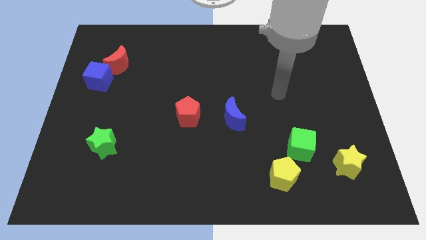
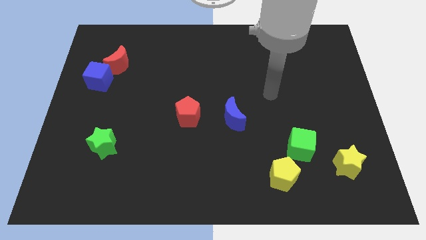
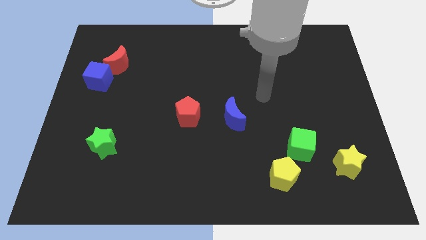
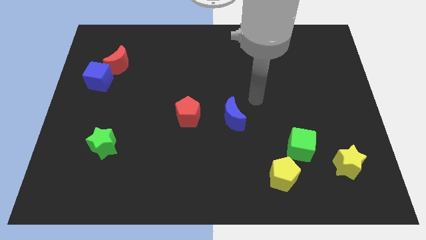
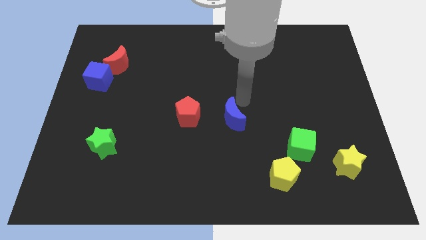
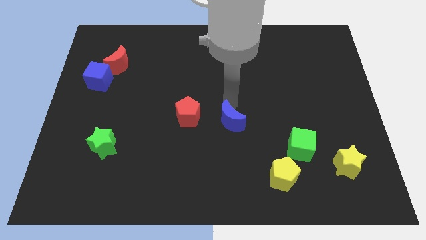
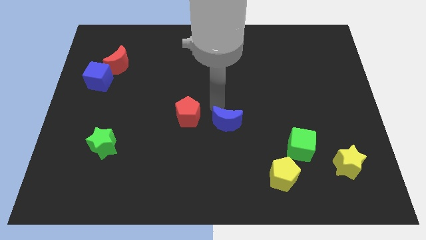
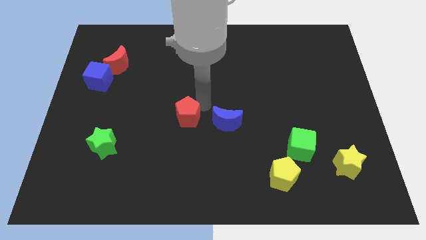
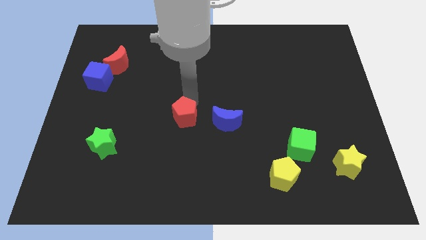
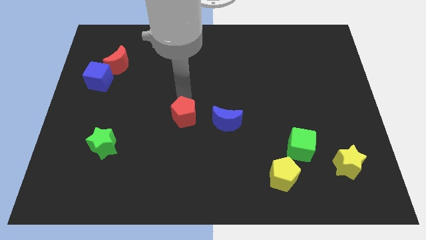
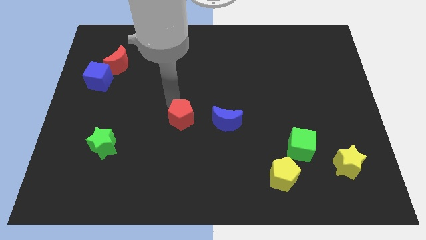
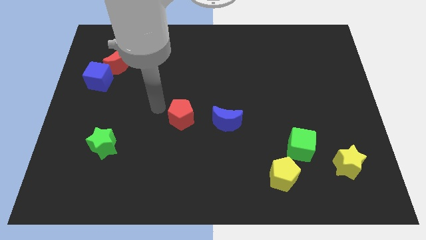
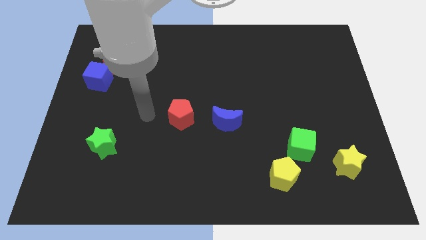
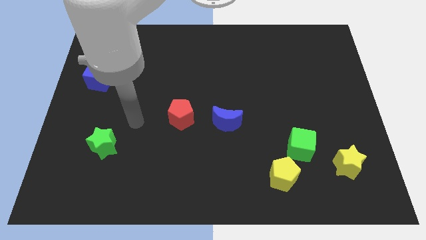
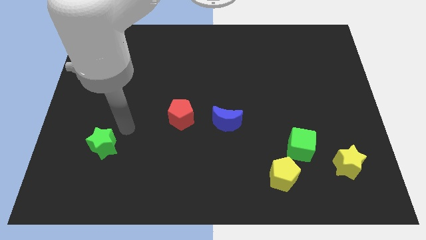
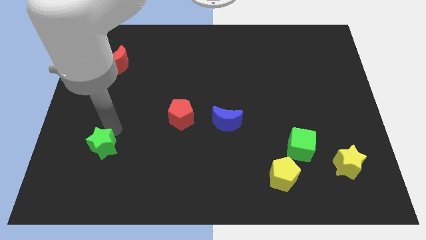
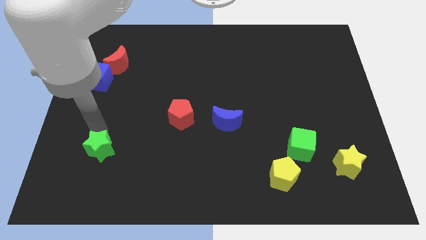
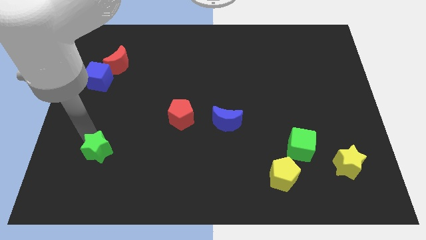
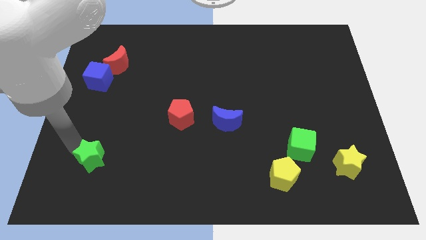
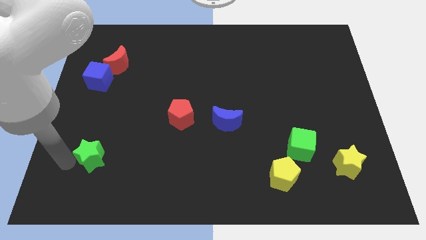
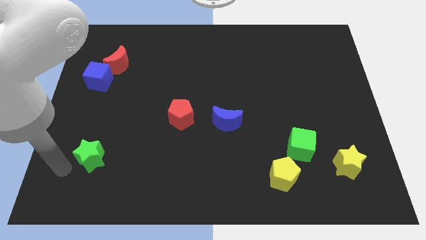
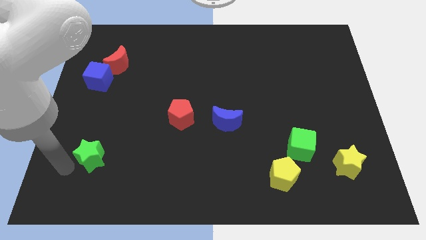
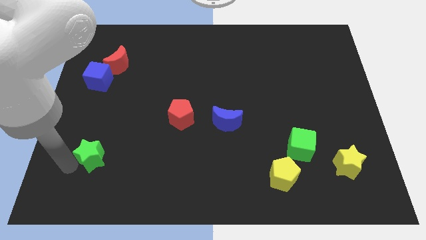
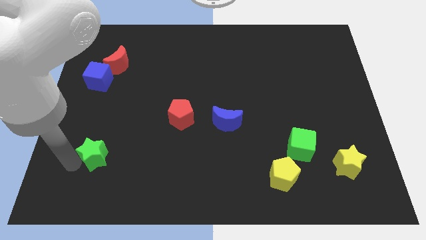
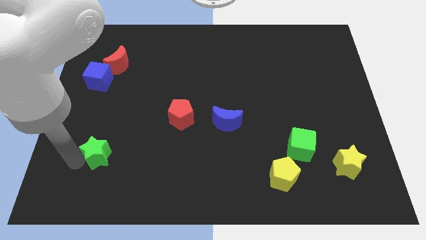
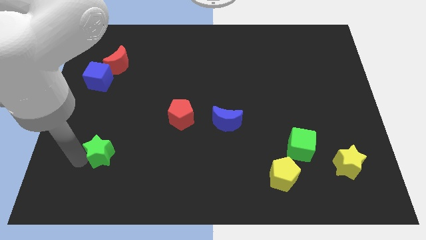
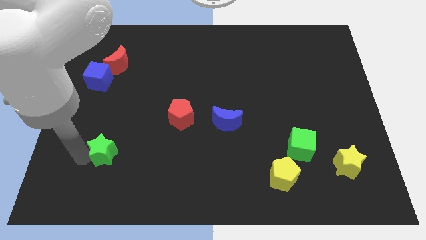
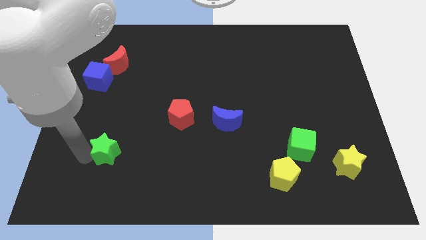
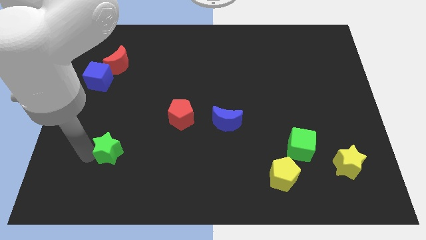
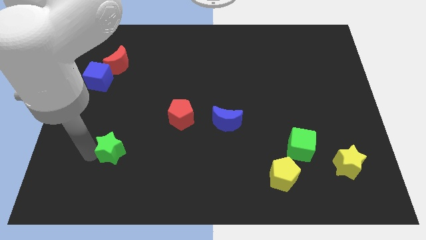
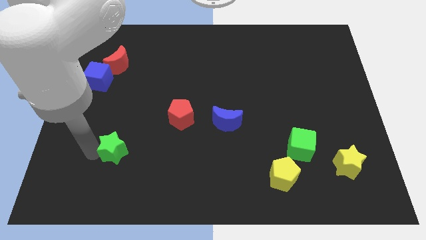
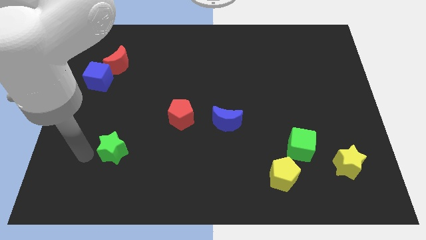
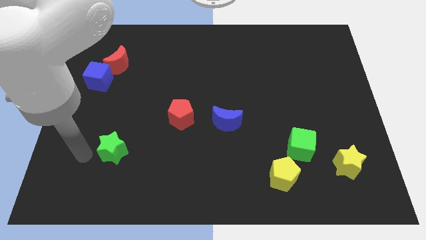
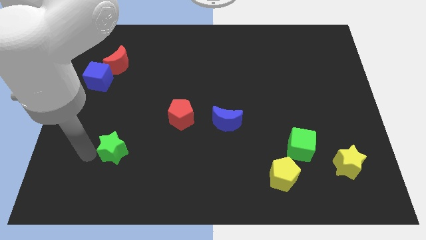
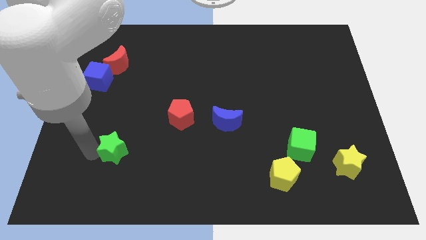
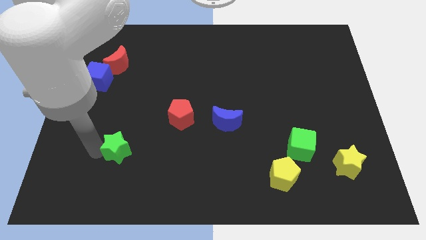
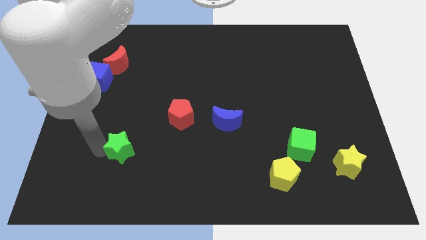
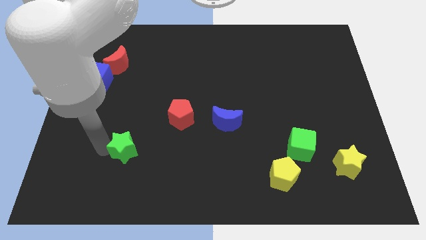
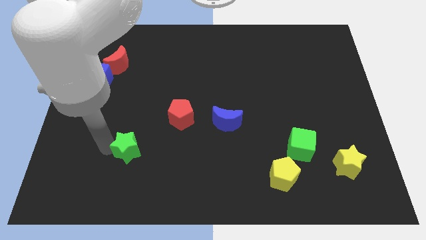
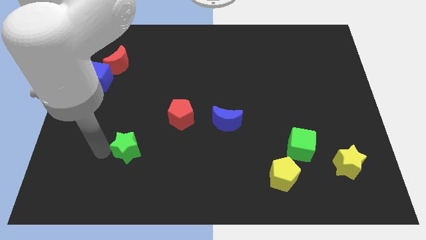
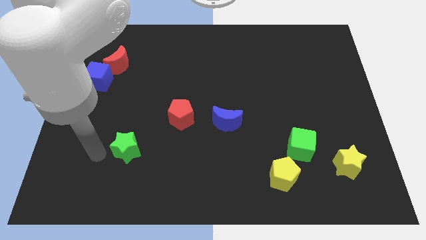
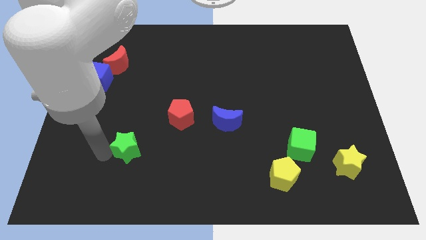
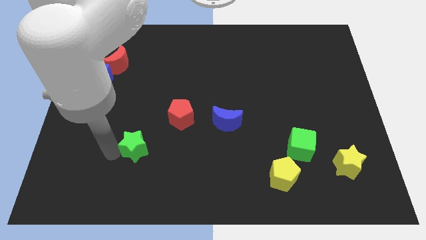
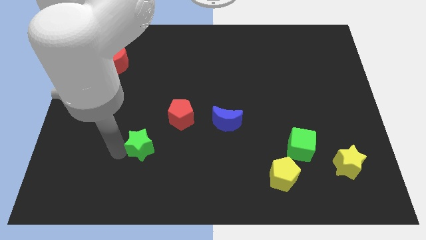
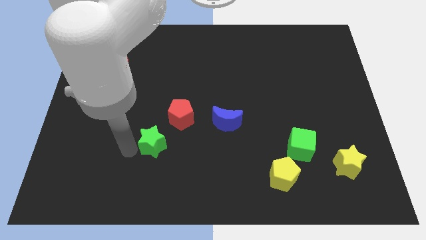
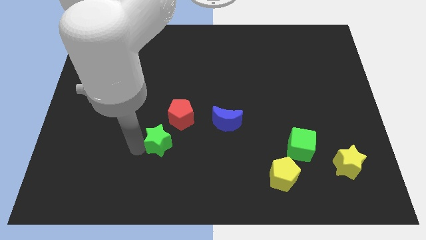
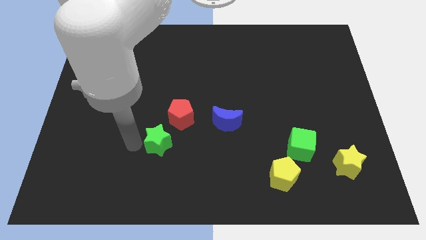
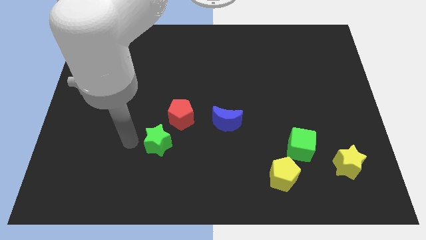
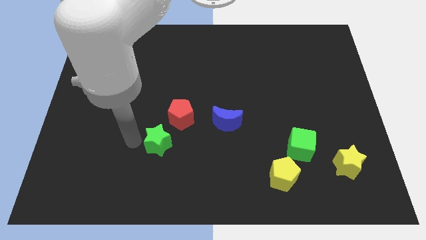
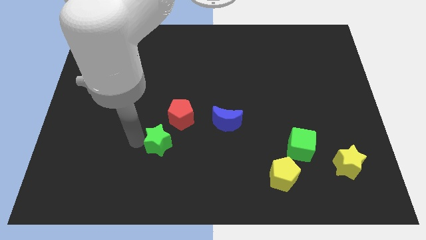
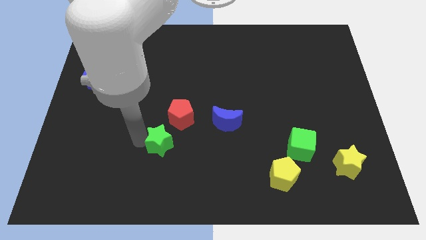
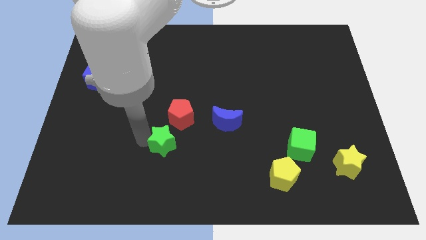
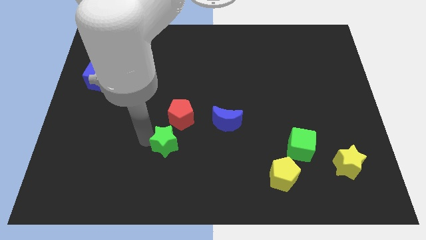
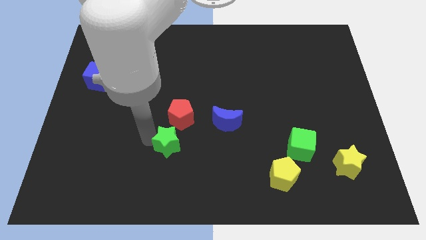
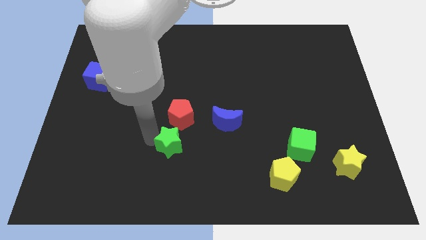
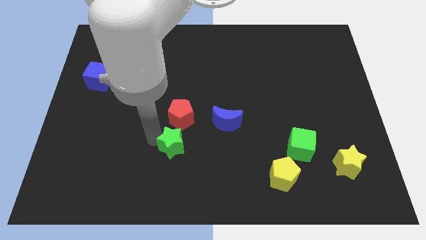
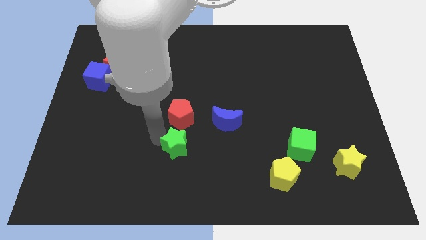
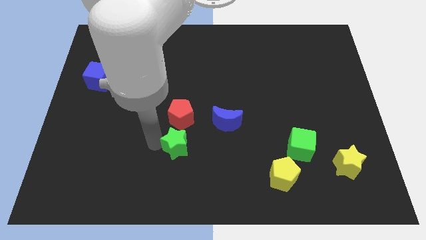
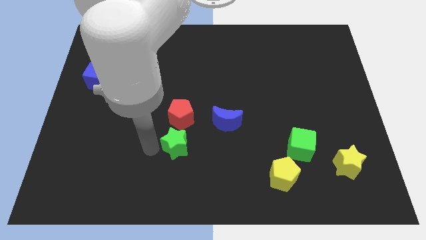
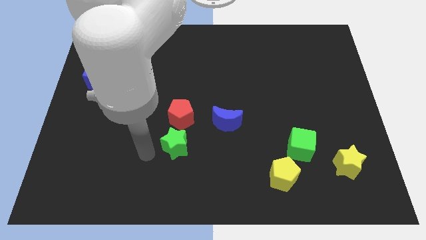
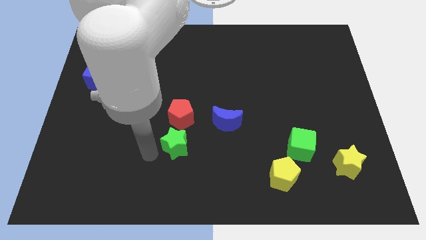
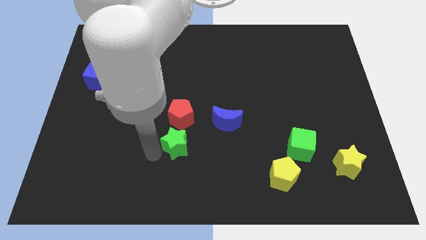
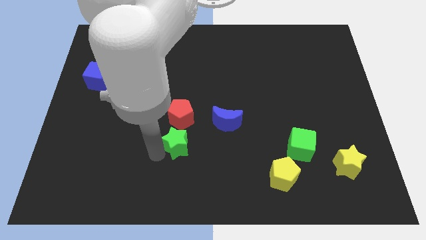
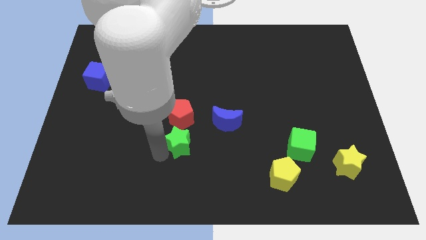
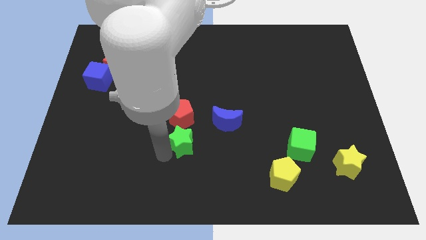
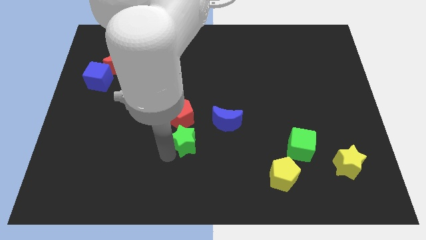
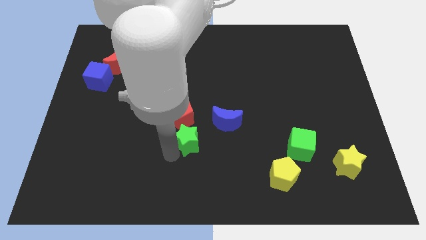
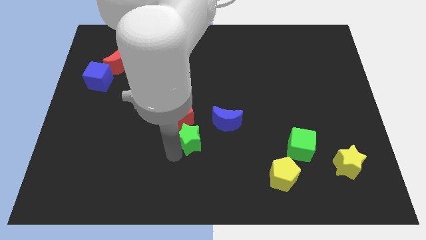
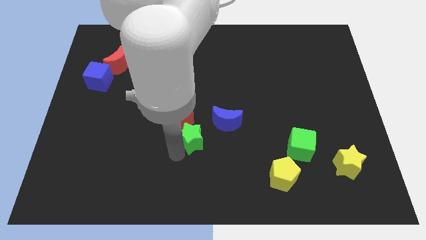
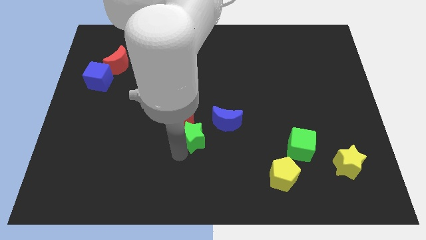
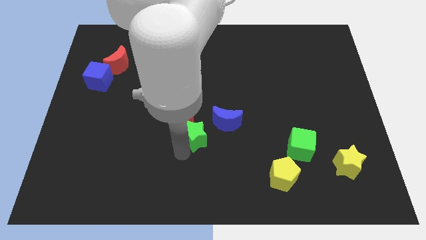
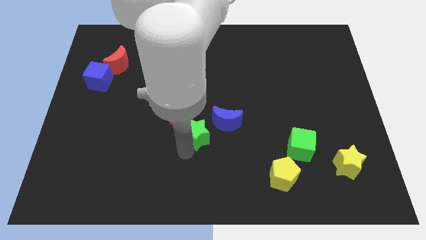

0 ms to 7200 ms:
slide the green star right

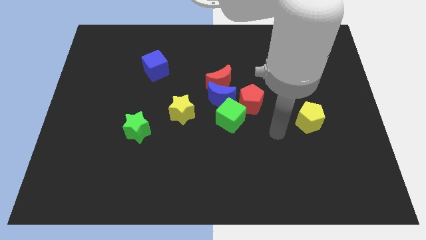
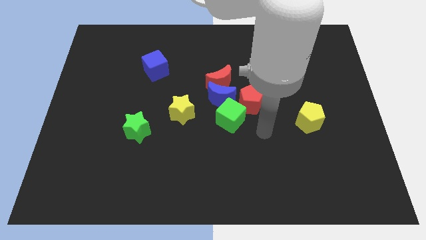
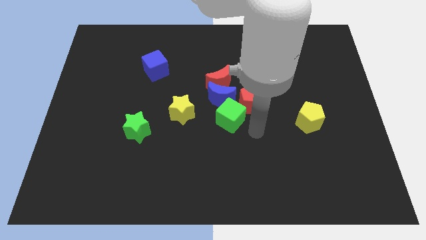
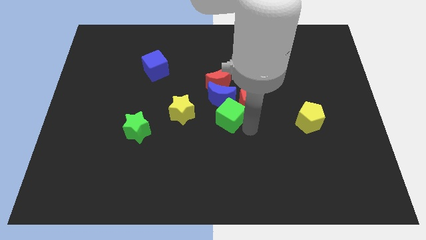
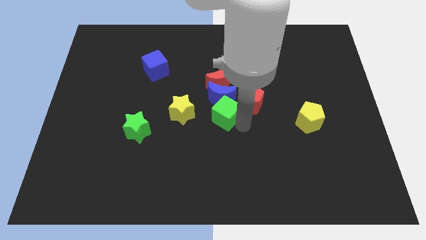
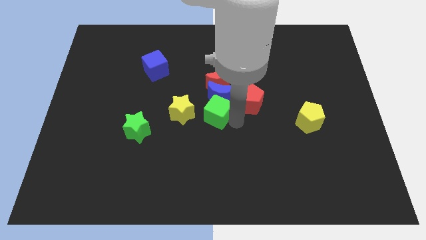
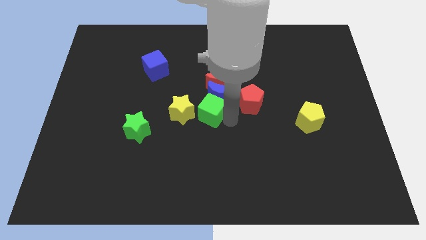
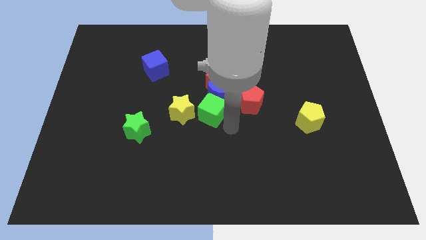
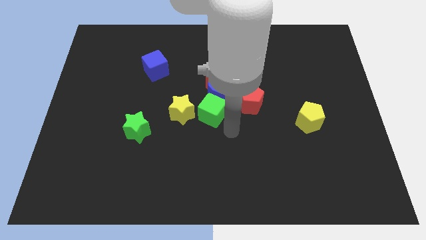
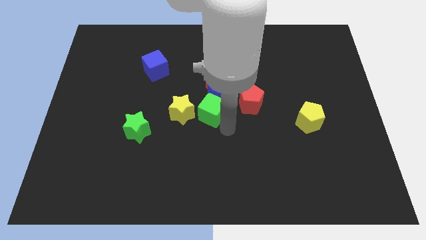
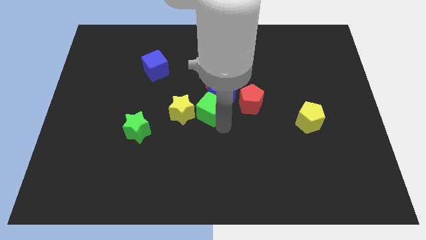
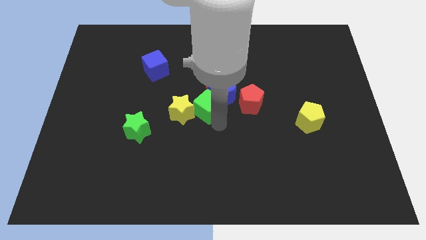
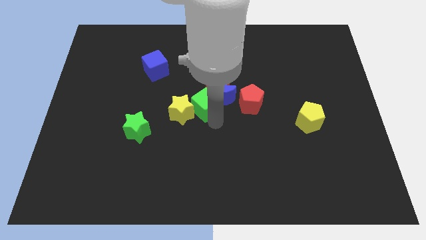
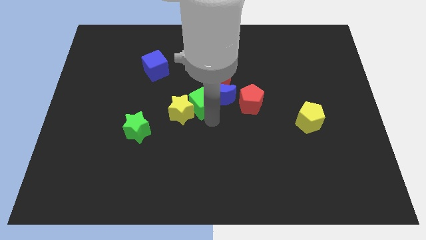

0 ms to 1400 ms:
push the green cube diagonally up and to the left slightly
